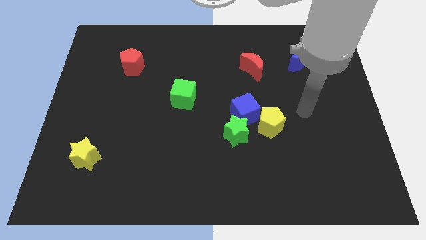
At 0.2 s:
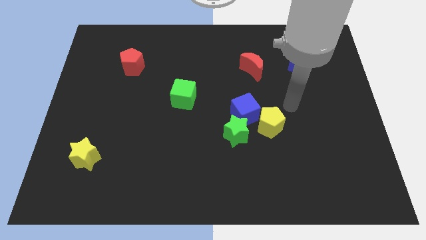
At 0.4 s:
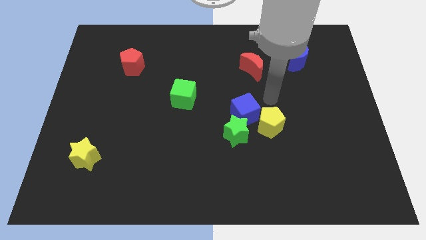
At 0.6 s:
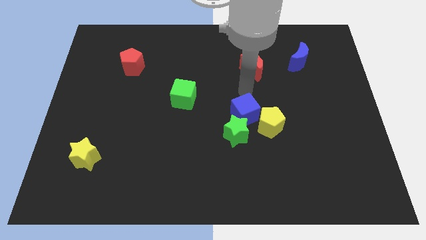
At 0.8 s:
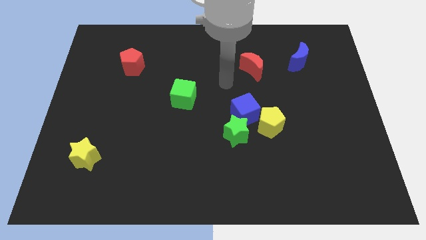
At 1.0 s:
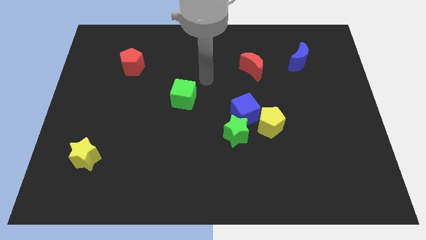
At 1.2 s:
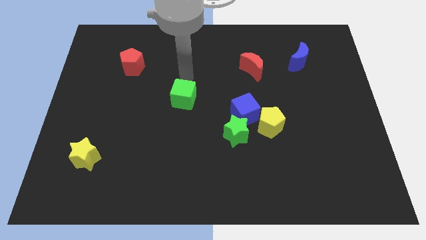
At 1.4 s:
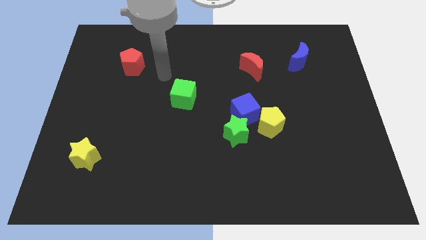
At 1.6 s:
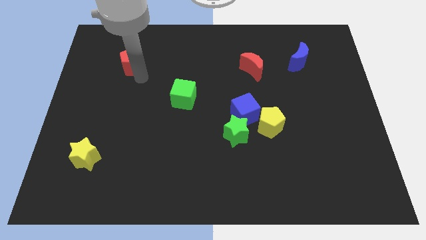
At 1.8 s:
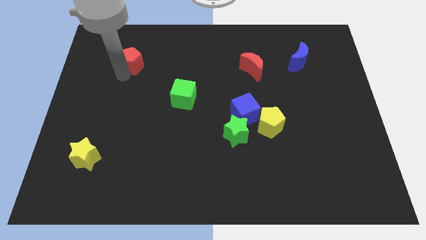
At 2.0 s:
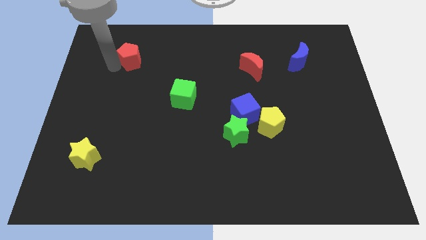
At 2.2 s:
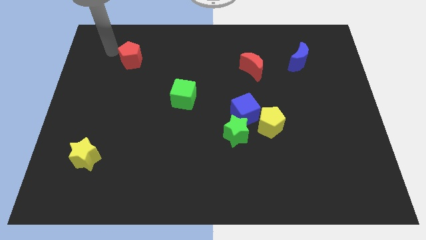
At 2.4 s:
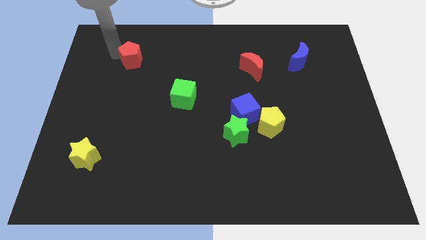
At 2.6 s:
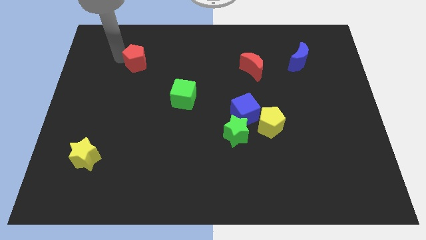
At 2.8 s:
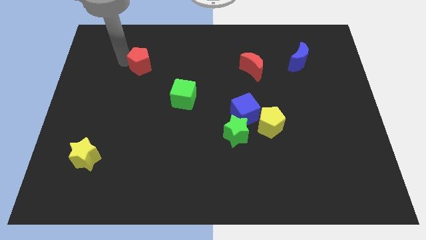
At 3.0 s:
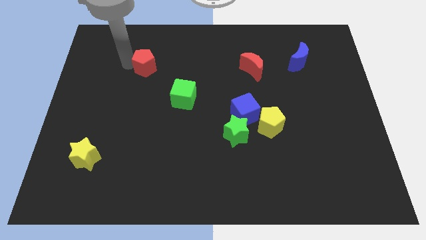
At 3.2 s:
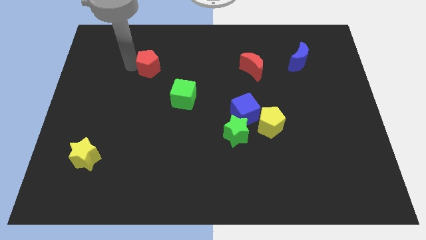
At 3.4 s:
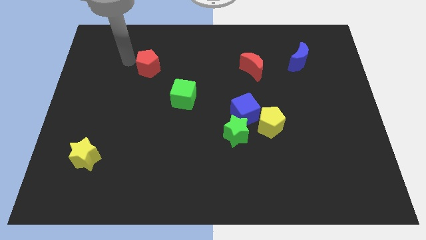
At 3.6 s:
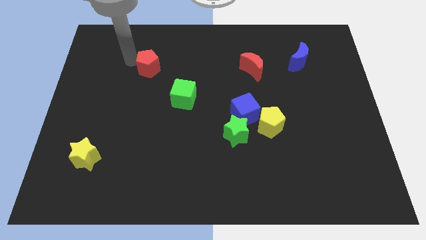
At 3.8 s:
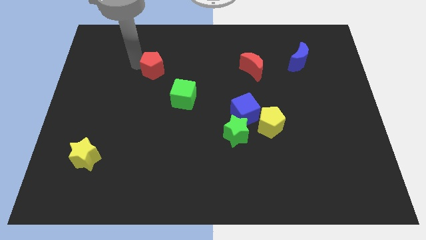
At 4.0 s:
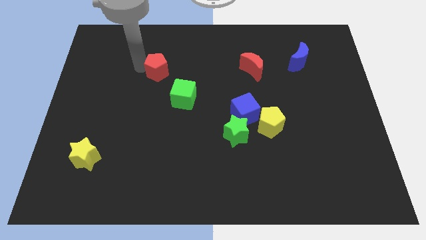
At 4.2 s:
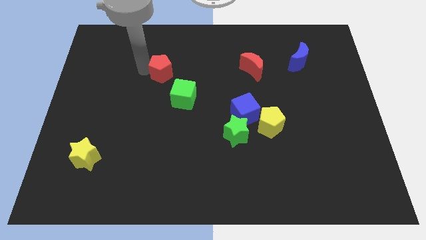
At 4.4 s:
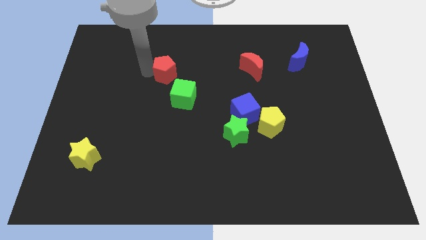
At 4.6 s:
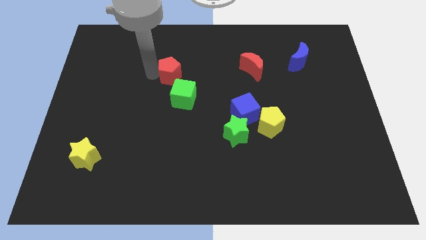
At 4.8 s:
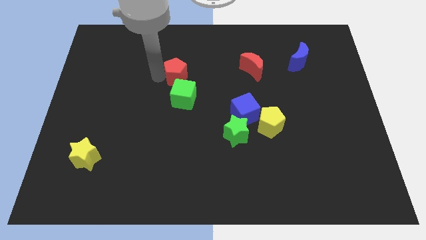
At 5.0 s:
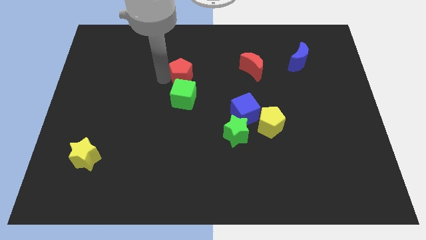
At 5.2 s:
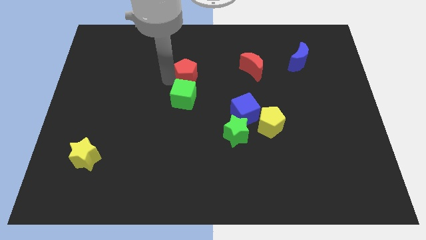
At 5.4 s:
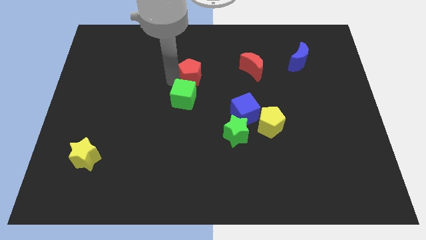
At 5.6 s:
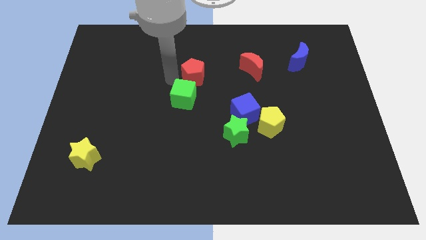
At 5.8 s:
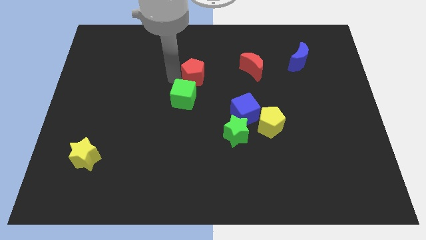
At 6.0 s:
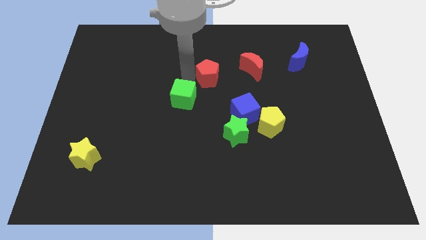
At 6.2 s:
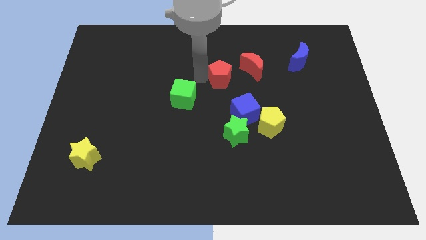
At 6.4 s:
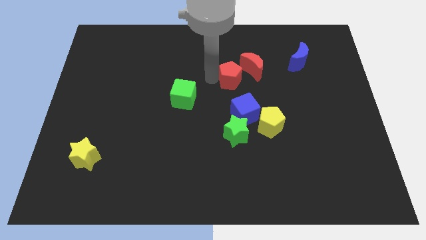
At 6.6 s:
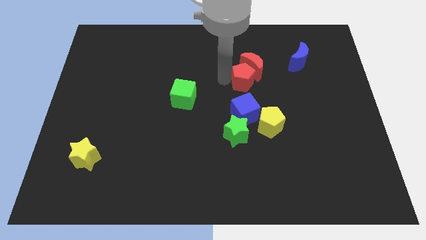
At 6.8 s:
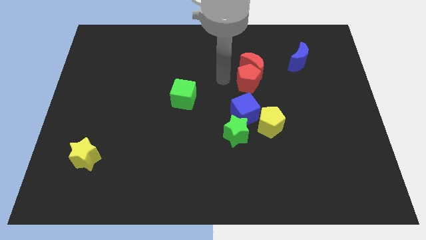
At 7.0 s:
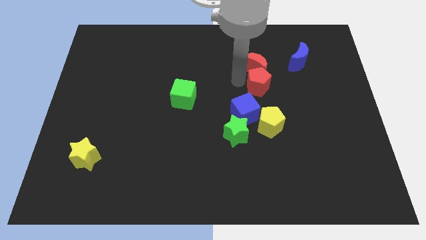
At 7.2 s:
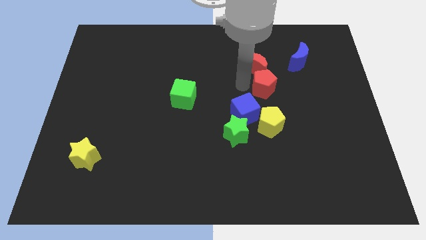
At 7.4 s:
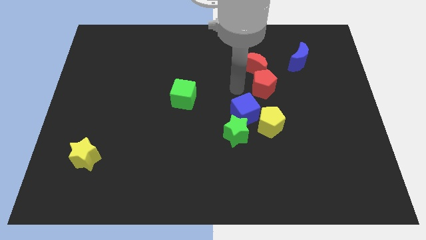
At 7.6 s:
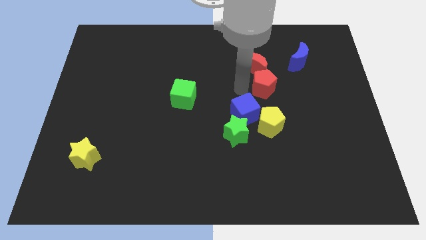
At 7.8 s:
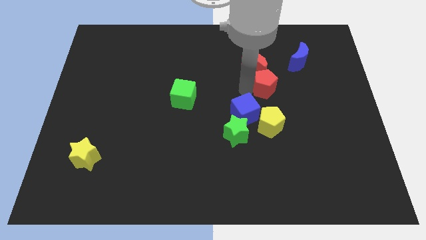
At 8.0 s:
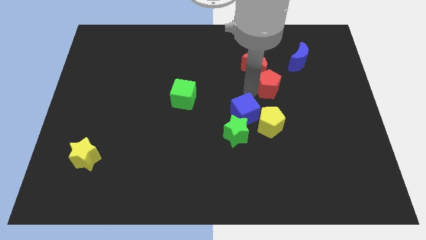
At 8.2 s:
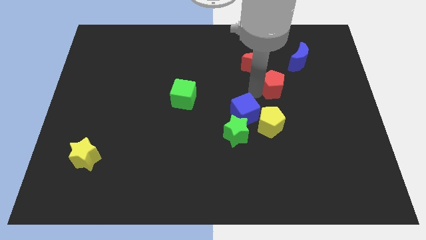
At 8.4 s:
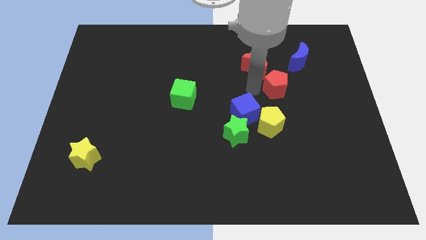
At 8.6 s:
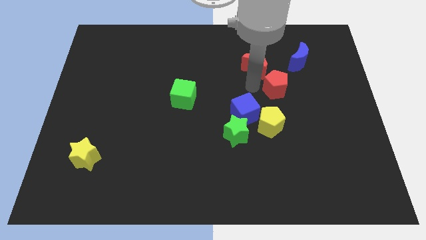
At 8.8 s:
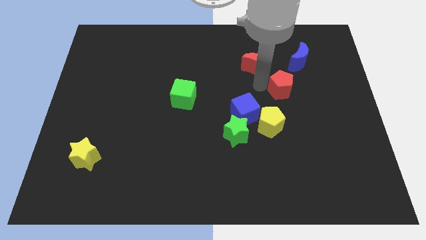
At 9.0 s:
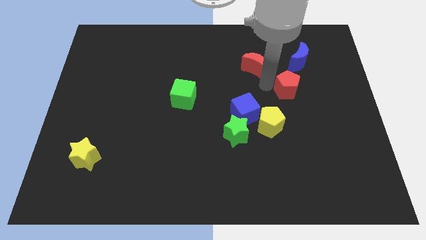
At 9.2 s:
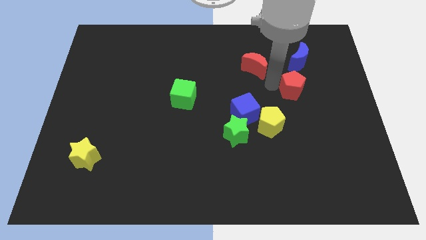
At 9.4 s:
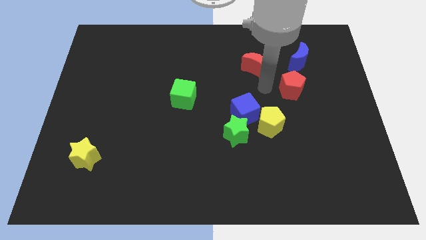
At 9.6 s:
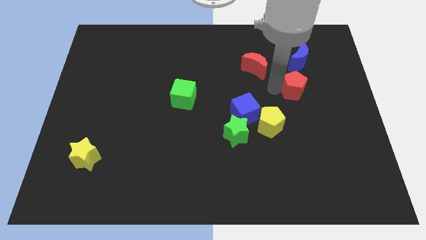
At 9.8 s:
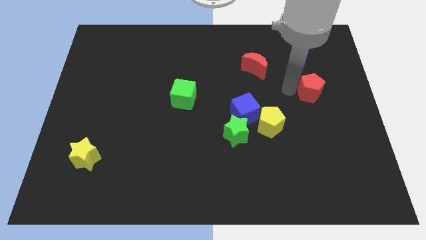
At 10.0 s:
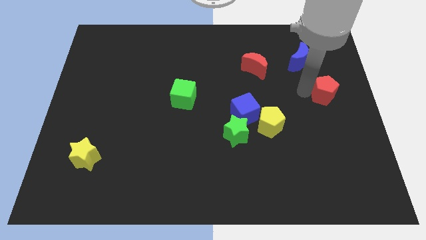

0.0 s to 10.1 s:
slide the red pentagon to the center right

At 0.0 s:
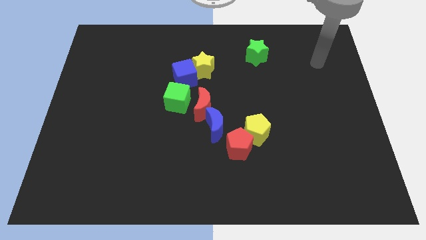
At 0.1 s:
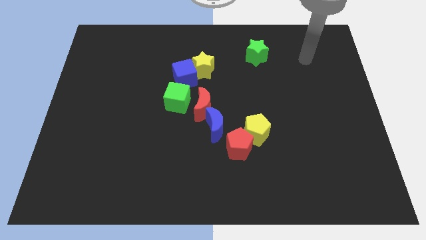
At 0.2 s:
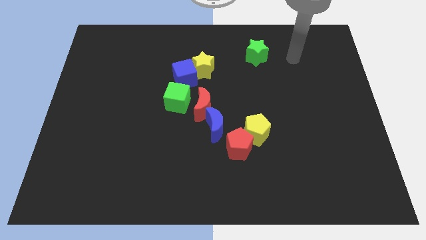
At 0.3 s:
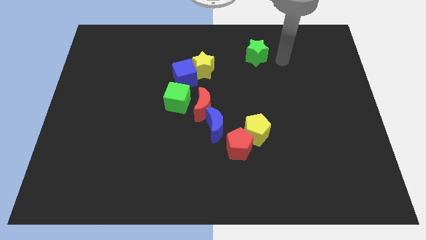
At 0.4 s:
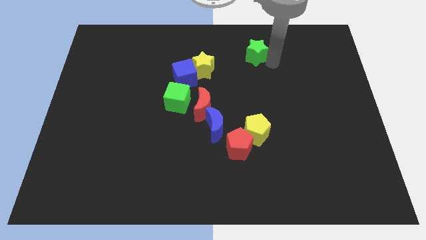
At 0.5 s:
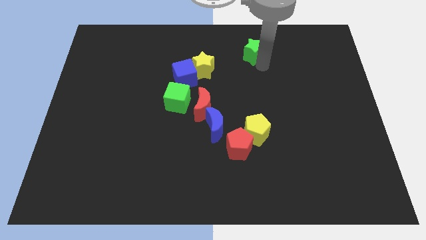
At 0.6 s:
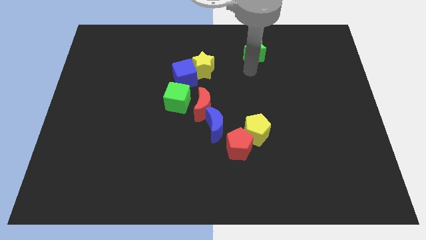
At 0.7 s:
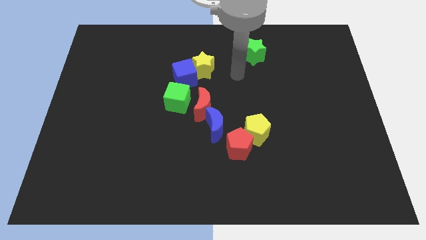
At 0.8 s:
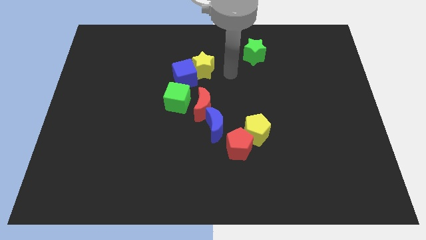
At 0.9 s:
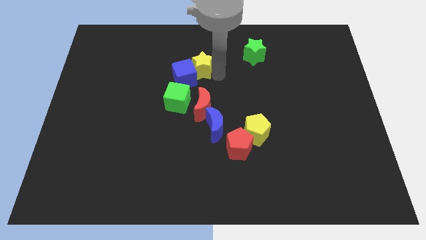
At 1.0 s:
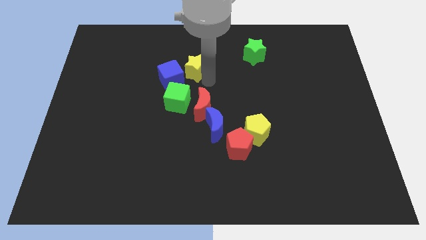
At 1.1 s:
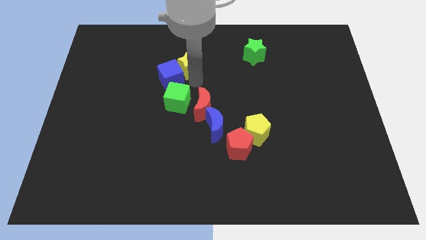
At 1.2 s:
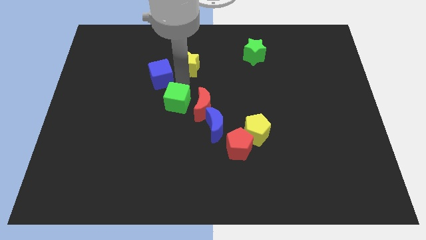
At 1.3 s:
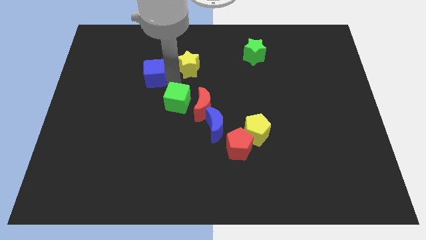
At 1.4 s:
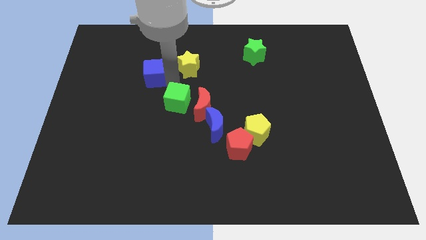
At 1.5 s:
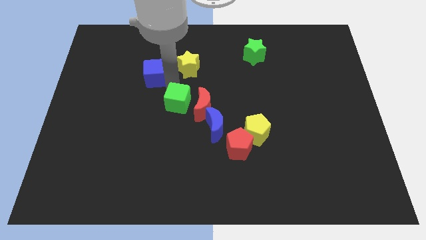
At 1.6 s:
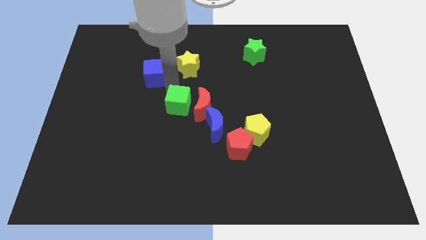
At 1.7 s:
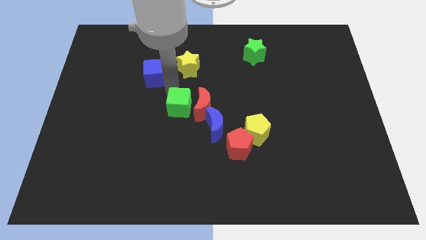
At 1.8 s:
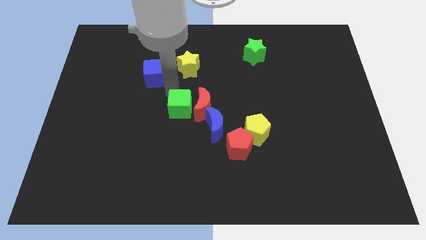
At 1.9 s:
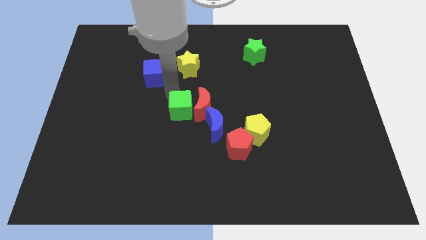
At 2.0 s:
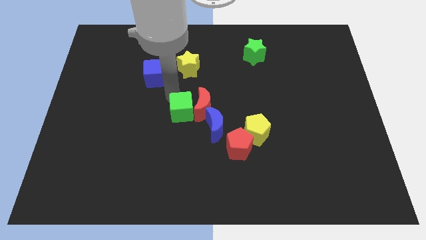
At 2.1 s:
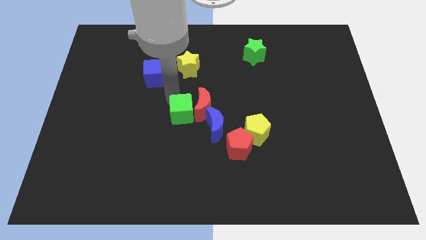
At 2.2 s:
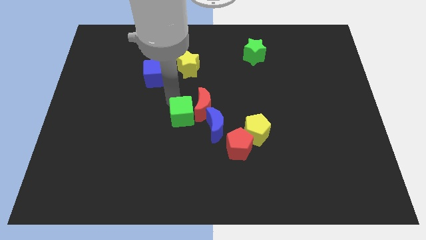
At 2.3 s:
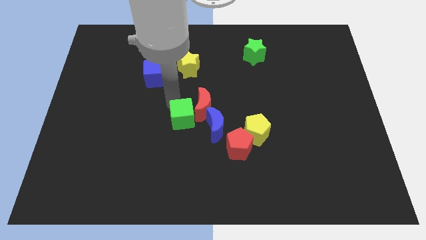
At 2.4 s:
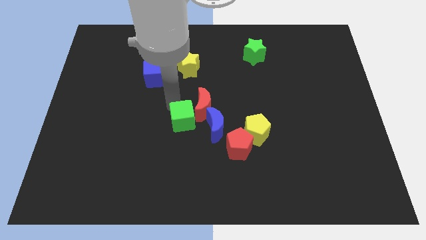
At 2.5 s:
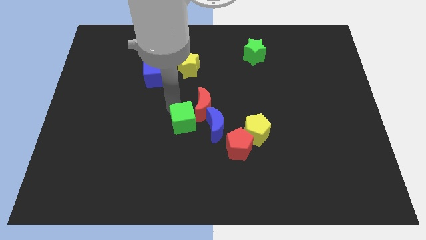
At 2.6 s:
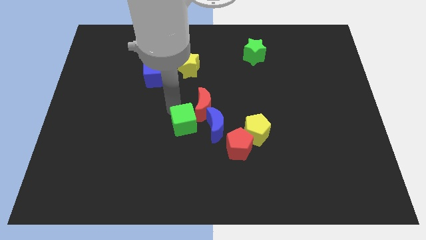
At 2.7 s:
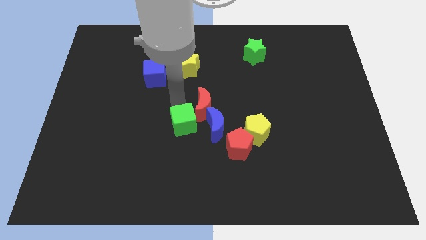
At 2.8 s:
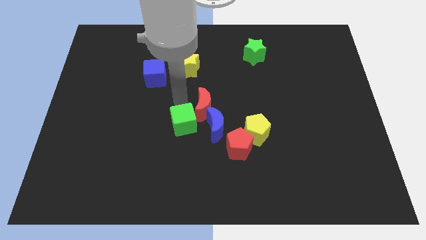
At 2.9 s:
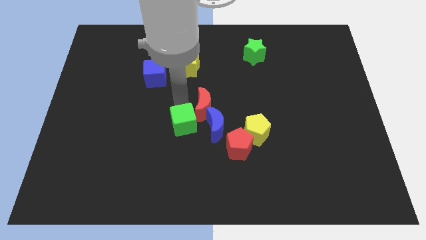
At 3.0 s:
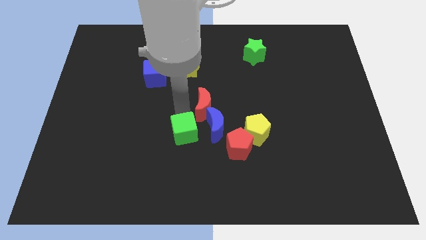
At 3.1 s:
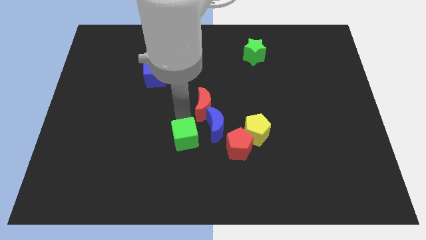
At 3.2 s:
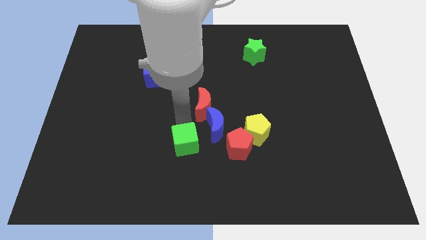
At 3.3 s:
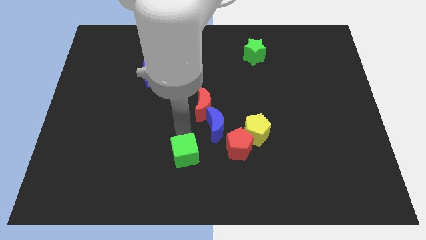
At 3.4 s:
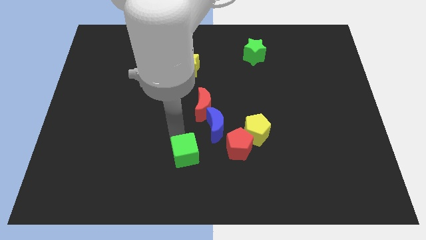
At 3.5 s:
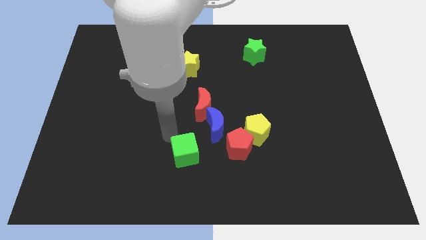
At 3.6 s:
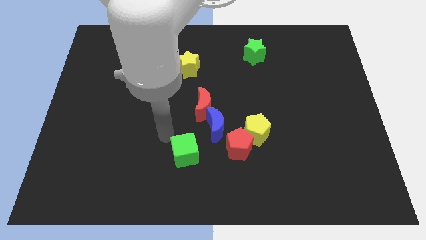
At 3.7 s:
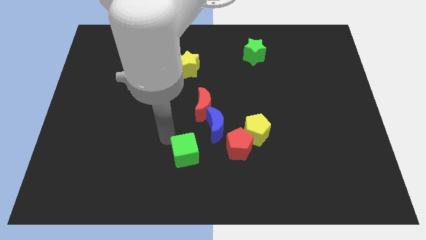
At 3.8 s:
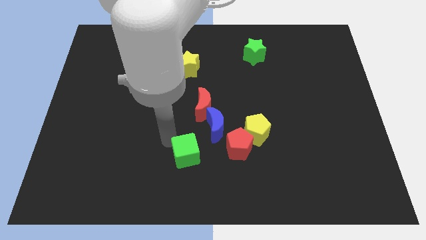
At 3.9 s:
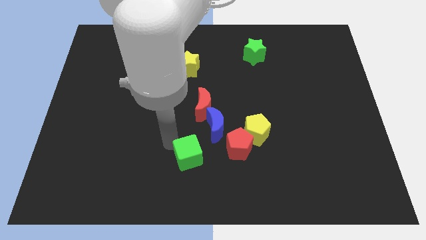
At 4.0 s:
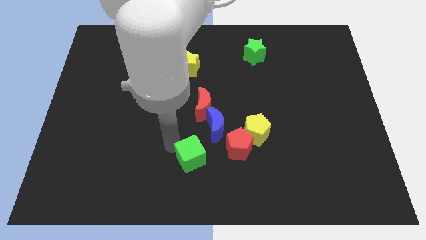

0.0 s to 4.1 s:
put the green cube to the bottom side
